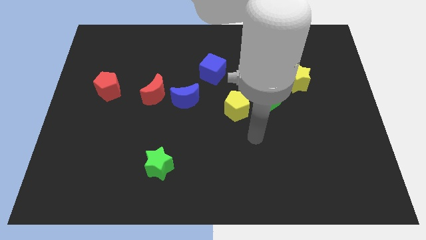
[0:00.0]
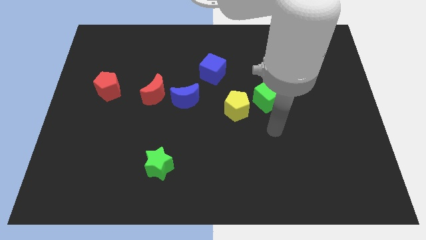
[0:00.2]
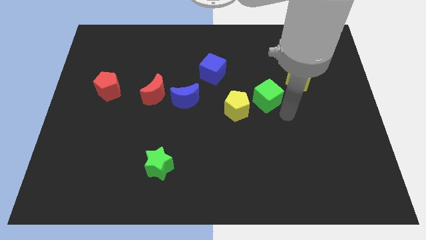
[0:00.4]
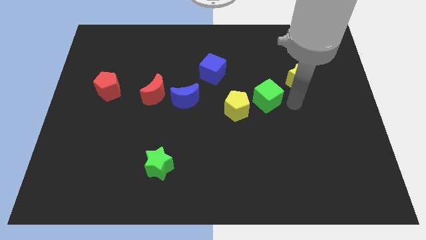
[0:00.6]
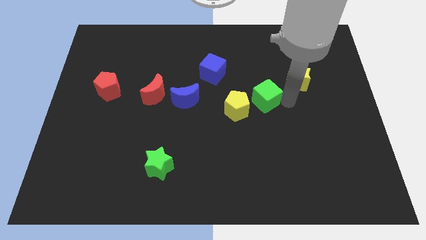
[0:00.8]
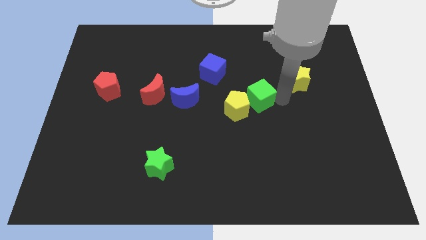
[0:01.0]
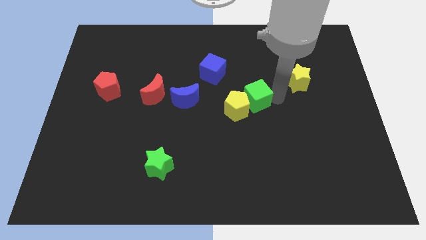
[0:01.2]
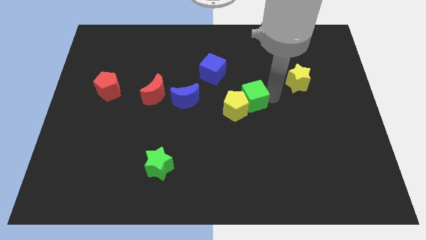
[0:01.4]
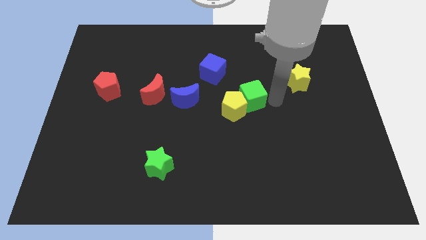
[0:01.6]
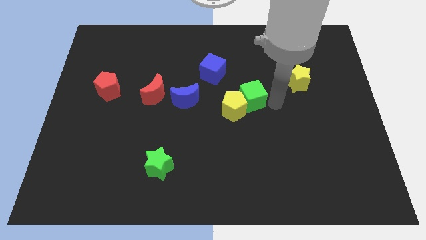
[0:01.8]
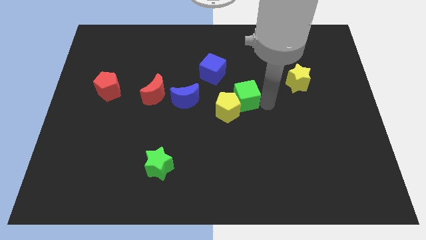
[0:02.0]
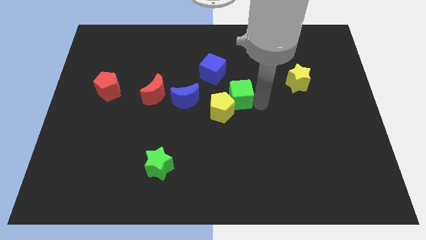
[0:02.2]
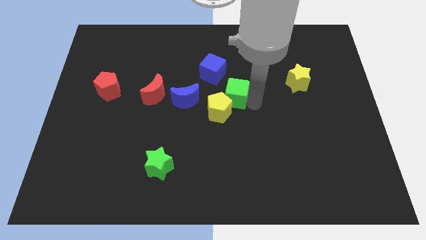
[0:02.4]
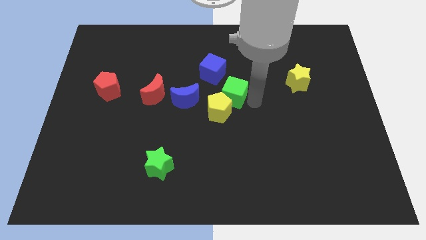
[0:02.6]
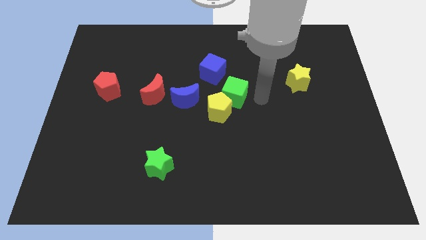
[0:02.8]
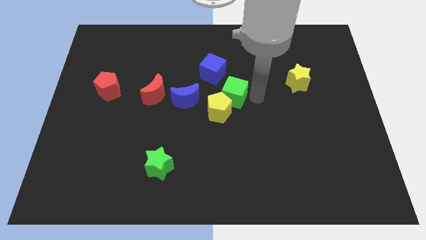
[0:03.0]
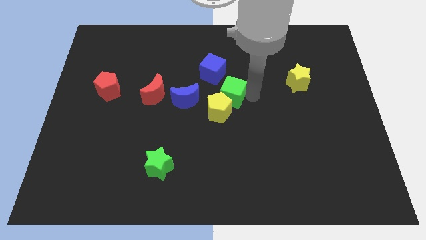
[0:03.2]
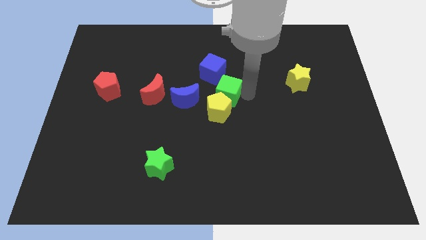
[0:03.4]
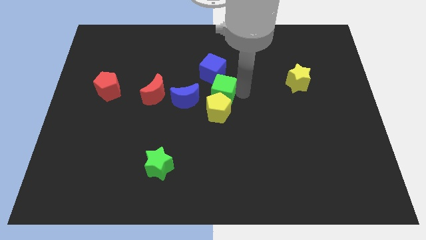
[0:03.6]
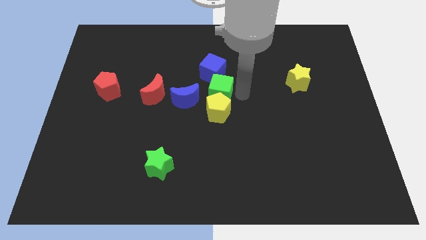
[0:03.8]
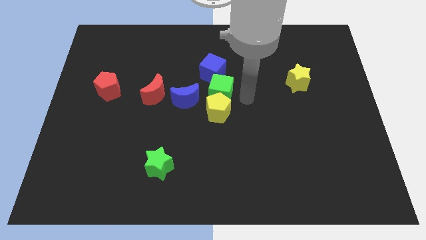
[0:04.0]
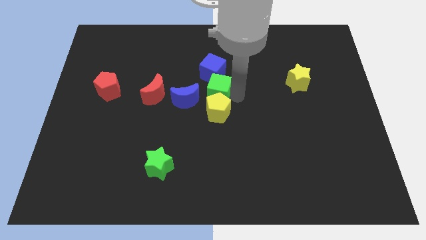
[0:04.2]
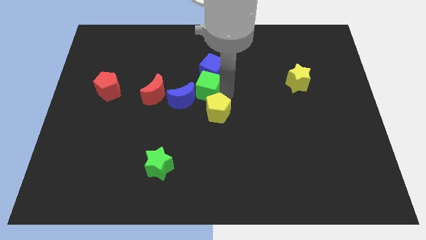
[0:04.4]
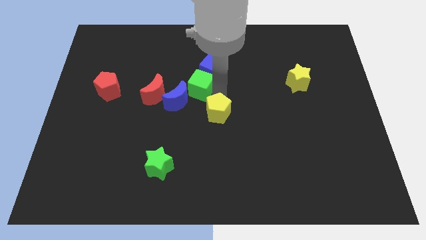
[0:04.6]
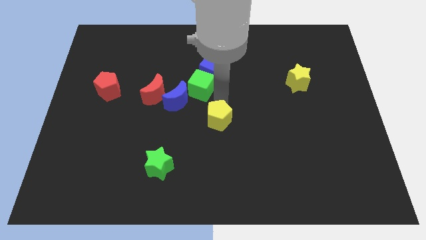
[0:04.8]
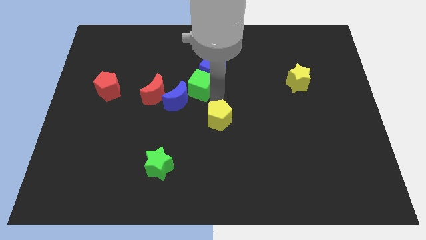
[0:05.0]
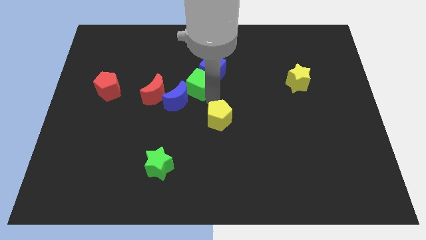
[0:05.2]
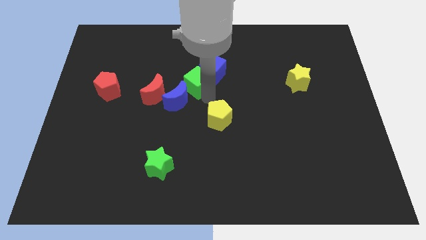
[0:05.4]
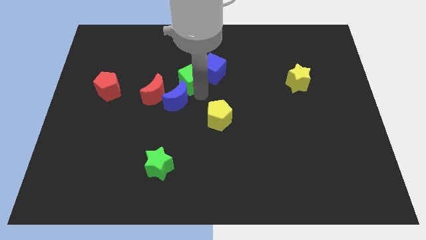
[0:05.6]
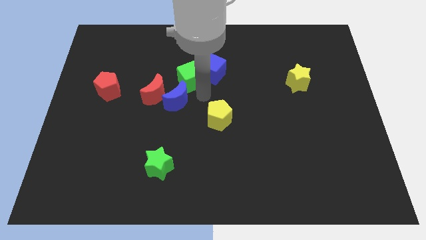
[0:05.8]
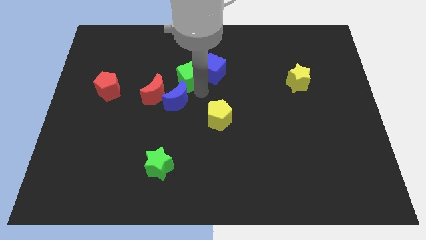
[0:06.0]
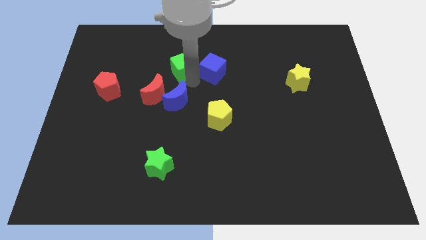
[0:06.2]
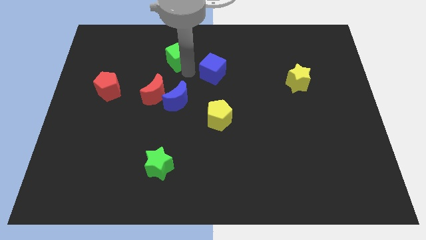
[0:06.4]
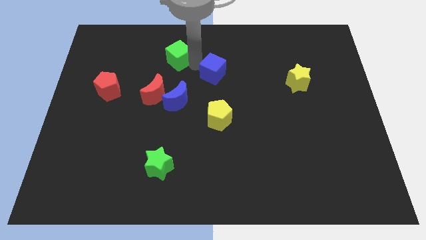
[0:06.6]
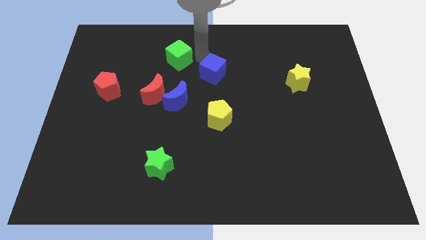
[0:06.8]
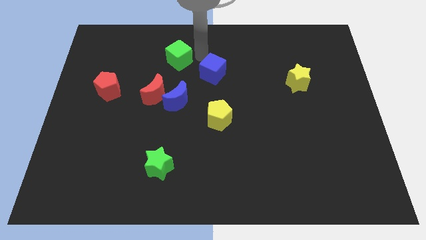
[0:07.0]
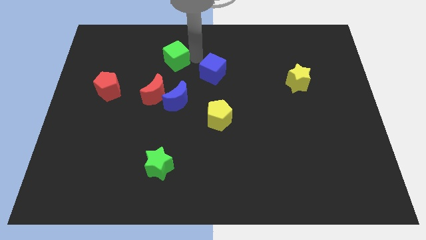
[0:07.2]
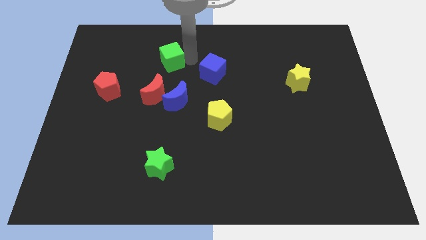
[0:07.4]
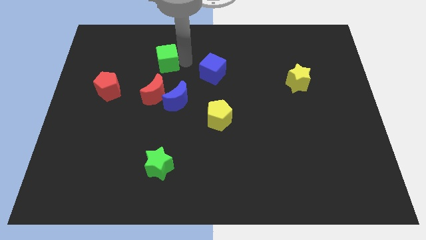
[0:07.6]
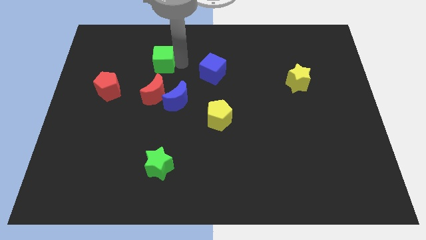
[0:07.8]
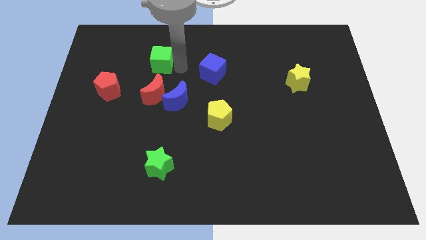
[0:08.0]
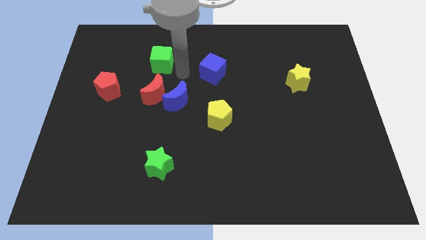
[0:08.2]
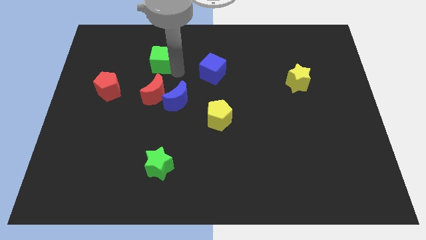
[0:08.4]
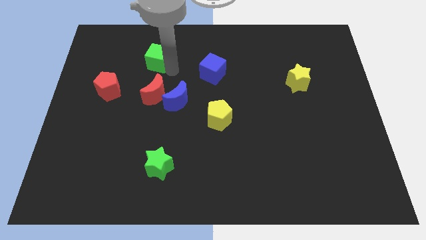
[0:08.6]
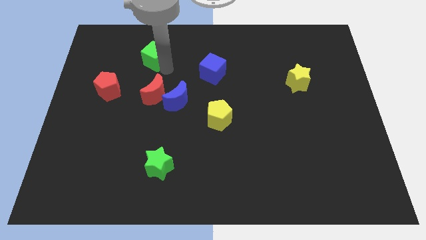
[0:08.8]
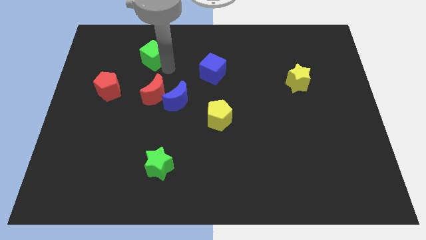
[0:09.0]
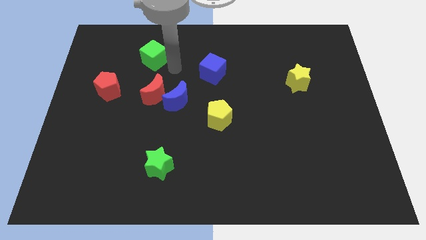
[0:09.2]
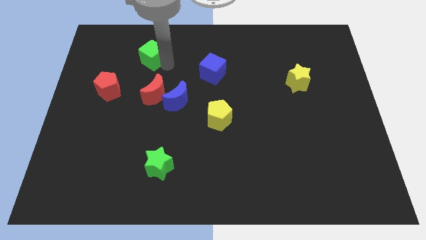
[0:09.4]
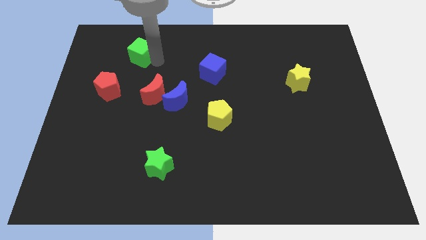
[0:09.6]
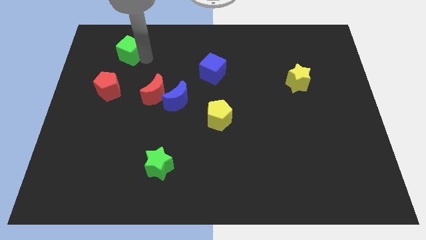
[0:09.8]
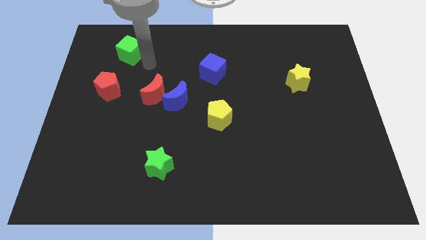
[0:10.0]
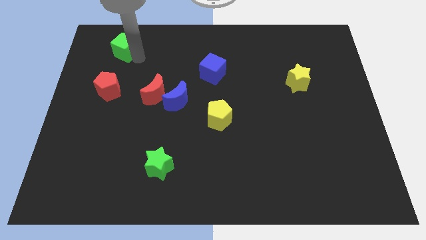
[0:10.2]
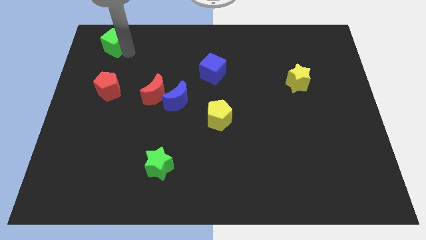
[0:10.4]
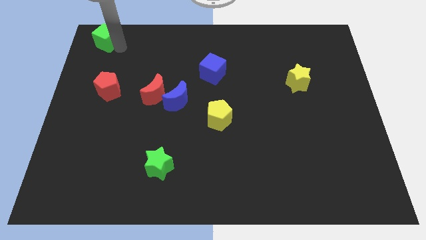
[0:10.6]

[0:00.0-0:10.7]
push the green cube to the upper left corner

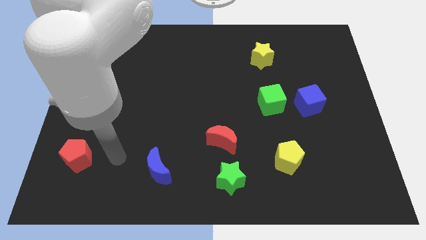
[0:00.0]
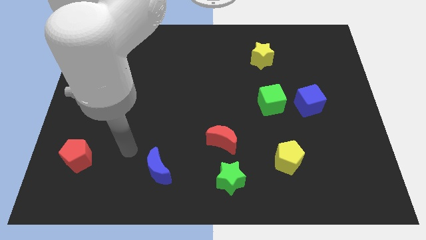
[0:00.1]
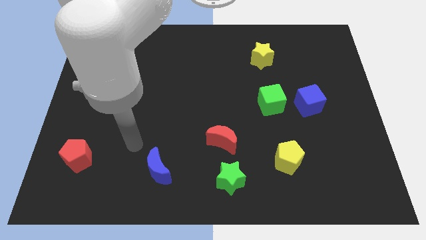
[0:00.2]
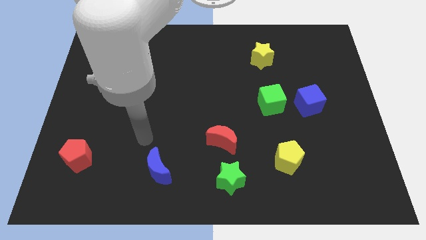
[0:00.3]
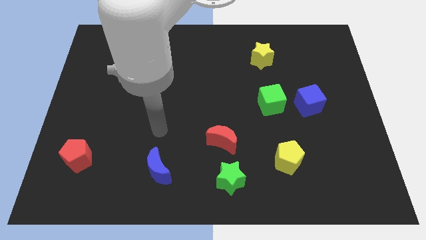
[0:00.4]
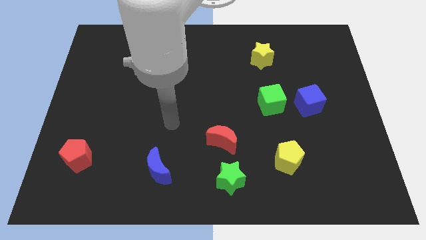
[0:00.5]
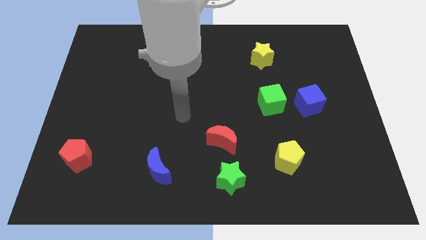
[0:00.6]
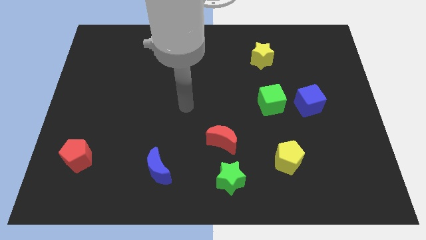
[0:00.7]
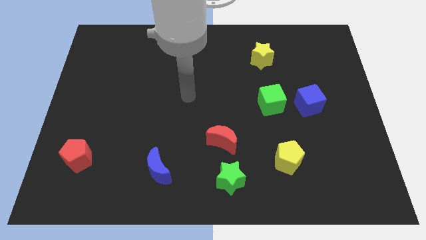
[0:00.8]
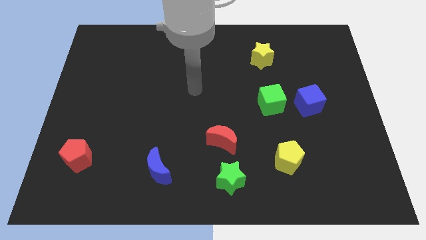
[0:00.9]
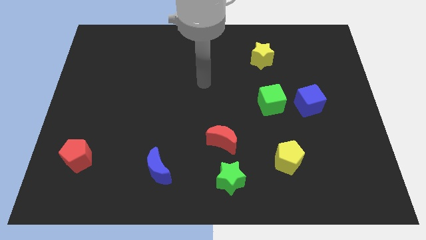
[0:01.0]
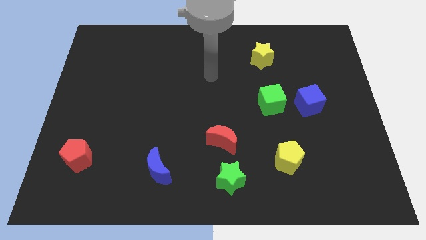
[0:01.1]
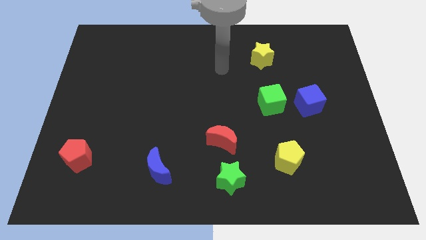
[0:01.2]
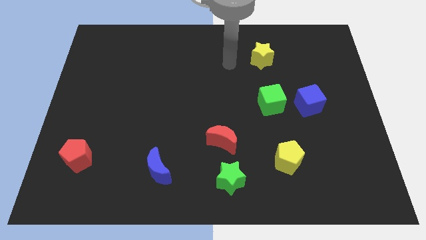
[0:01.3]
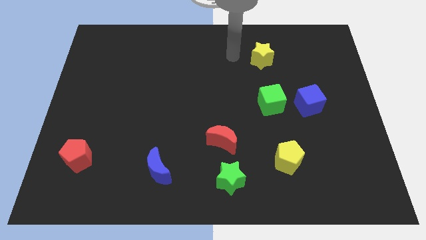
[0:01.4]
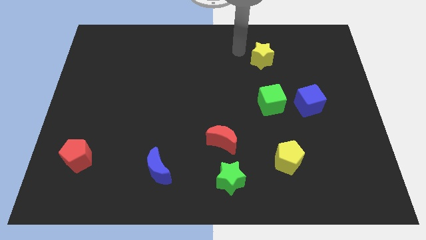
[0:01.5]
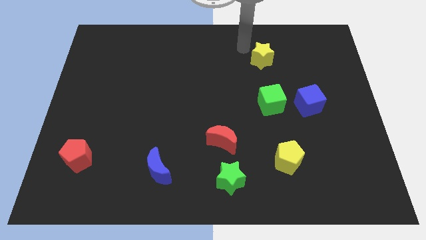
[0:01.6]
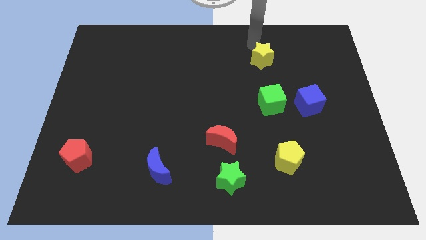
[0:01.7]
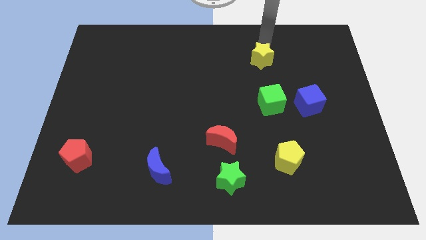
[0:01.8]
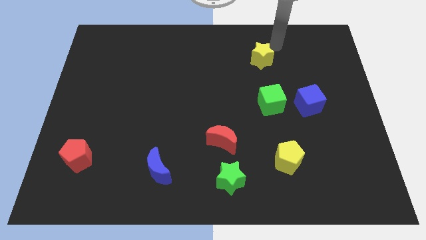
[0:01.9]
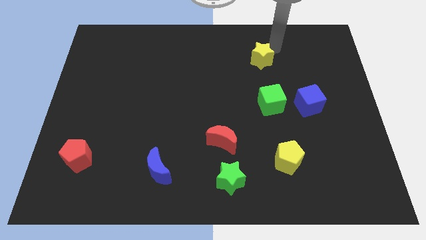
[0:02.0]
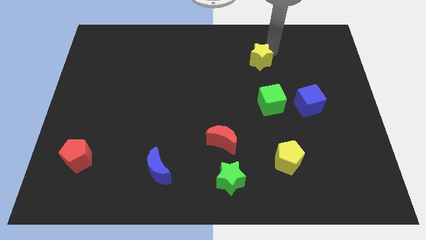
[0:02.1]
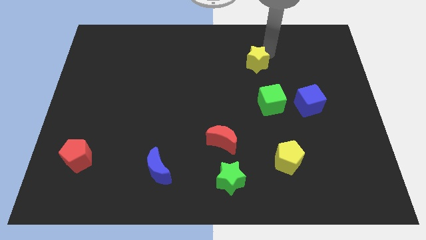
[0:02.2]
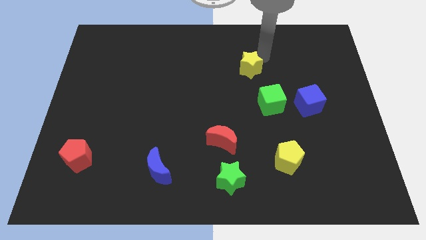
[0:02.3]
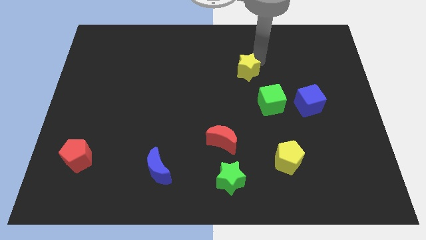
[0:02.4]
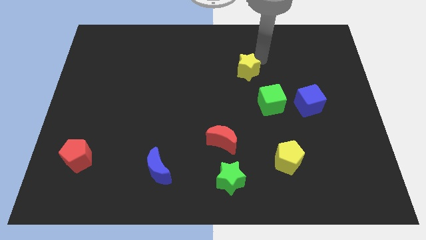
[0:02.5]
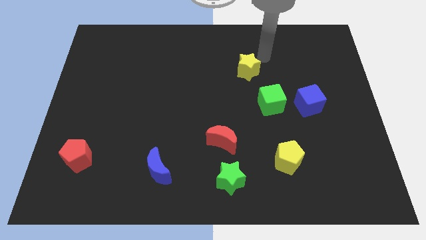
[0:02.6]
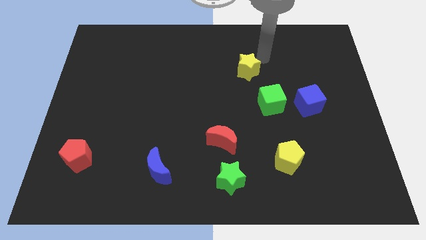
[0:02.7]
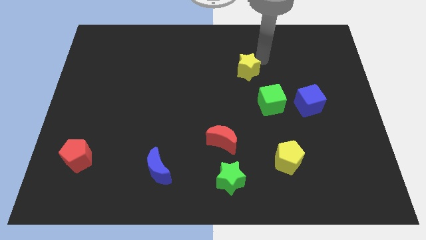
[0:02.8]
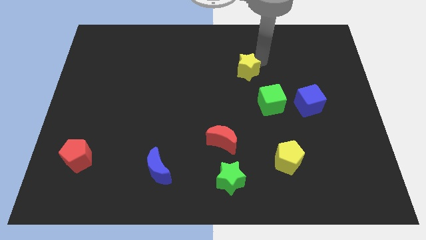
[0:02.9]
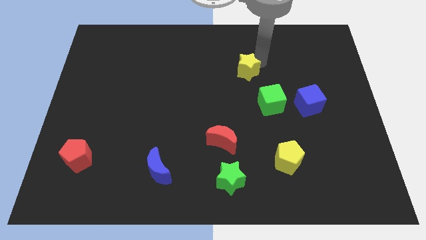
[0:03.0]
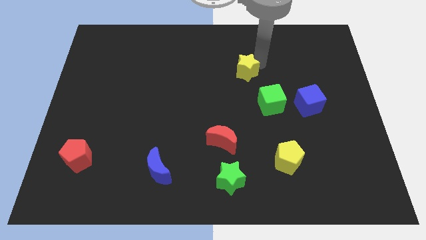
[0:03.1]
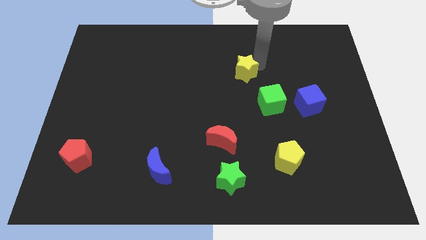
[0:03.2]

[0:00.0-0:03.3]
push the yellow star to the center
